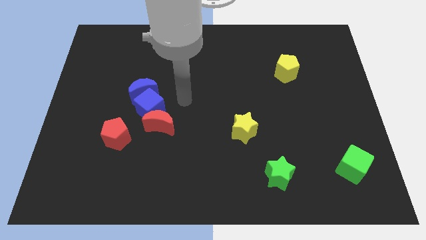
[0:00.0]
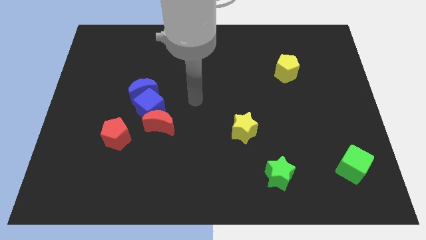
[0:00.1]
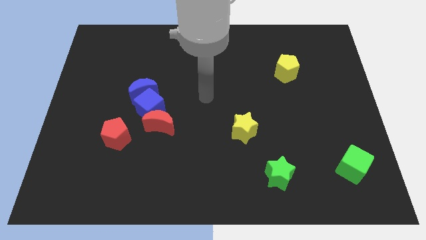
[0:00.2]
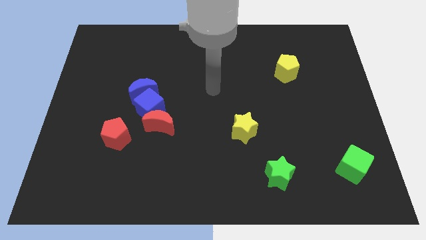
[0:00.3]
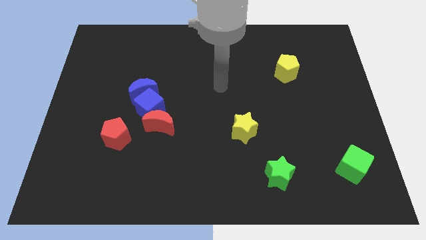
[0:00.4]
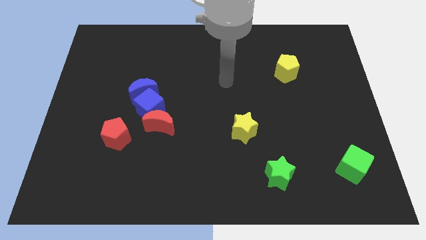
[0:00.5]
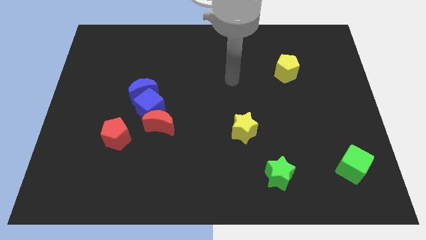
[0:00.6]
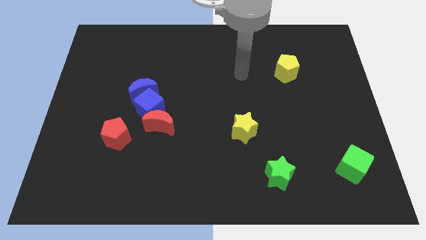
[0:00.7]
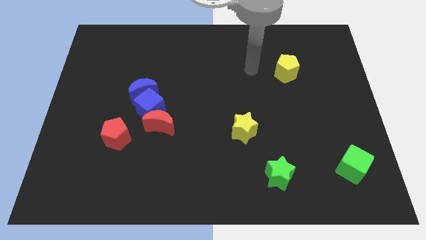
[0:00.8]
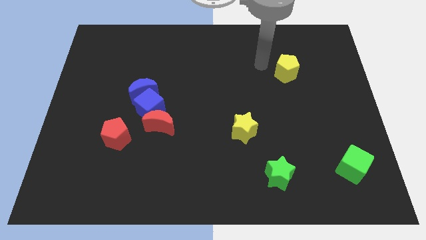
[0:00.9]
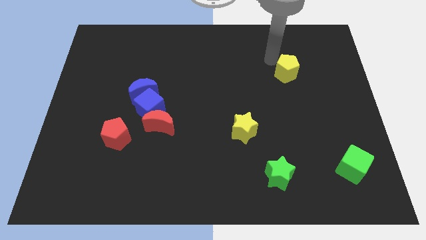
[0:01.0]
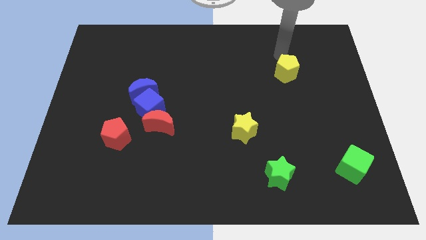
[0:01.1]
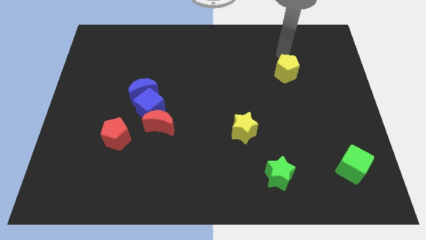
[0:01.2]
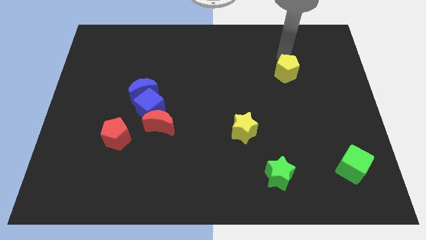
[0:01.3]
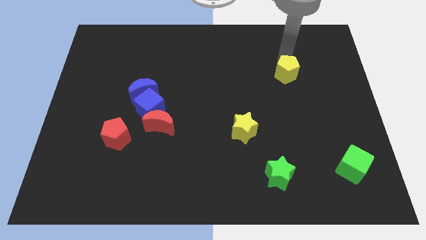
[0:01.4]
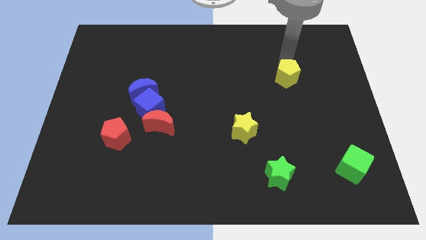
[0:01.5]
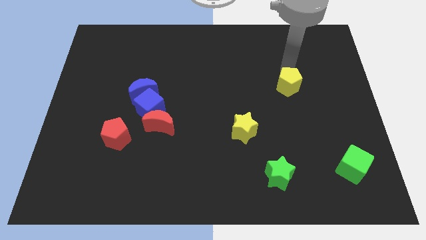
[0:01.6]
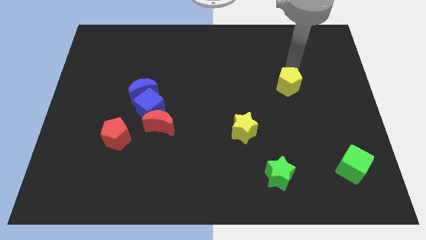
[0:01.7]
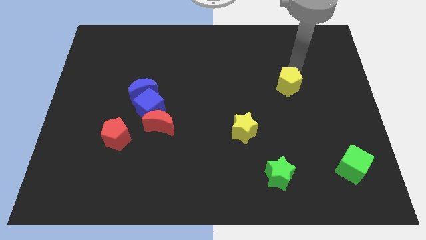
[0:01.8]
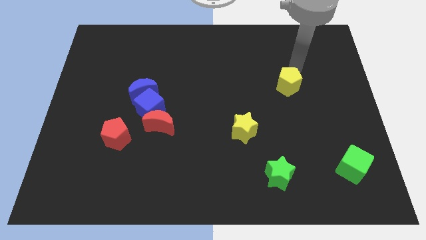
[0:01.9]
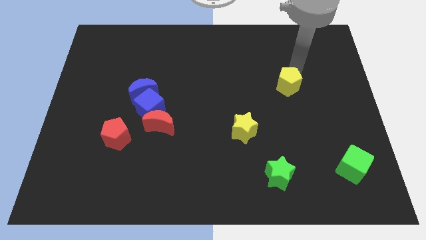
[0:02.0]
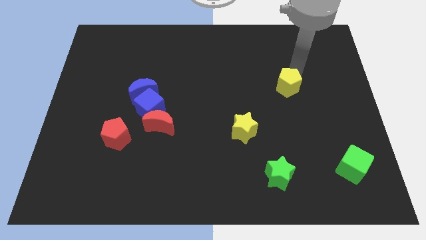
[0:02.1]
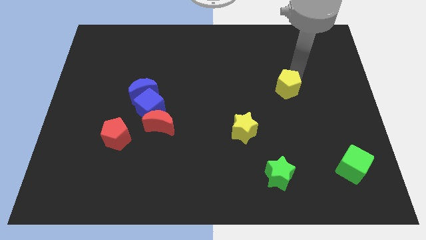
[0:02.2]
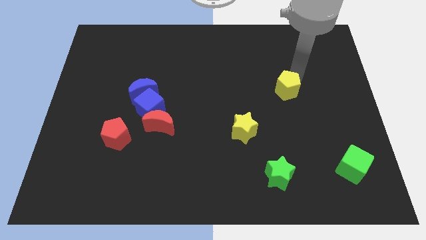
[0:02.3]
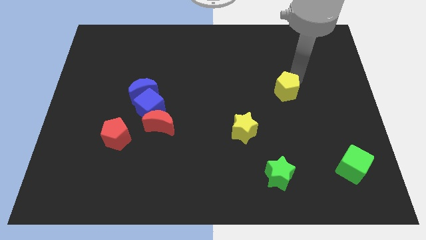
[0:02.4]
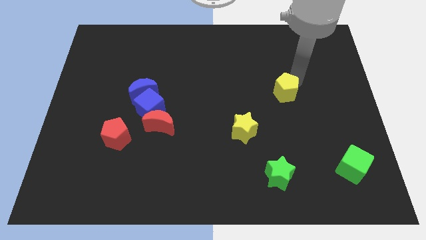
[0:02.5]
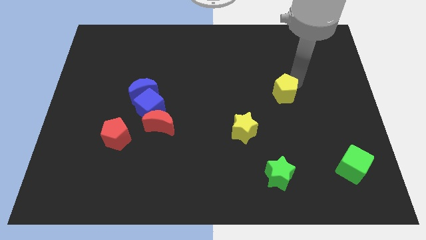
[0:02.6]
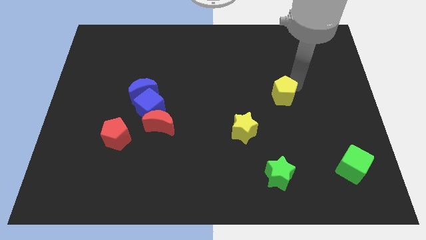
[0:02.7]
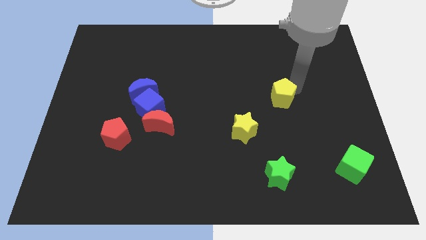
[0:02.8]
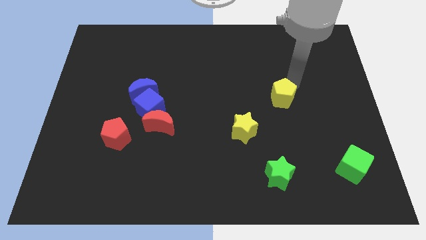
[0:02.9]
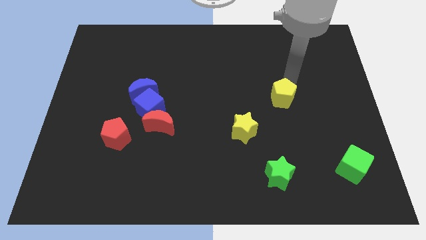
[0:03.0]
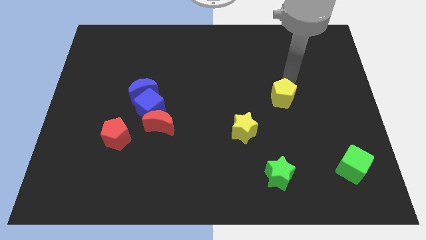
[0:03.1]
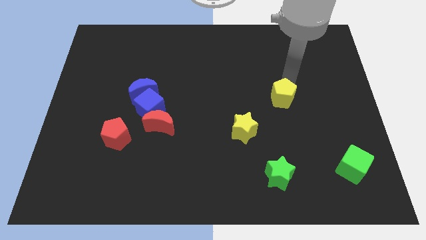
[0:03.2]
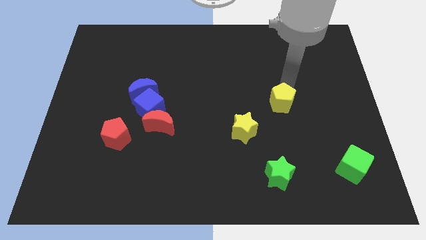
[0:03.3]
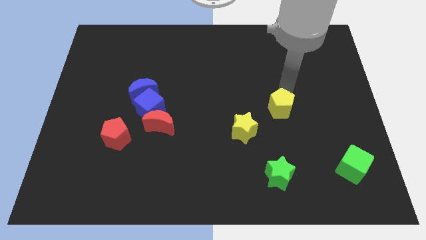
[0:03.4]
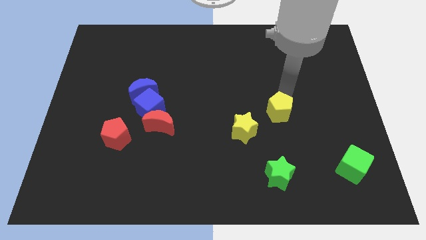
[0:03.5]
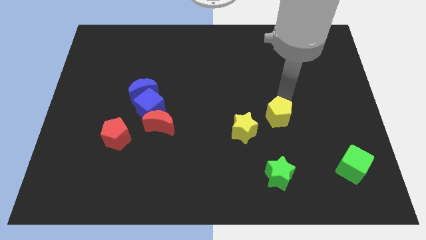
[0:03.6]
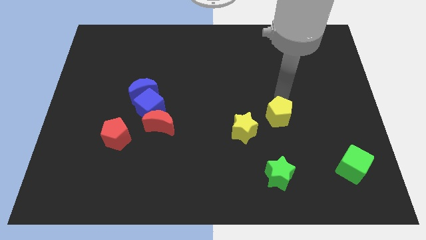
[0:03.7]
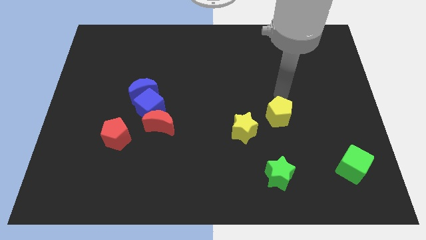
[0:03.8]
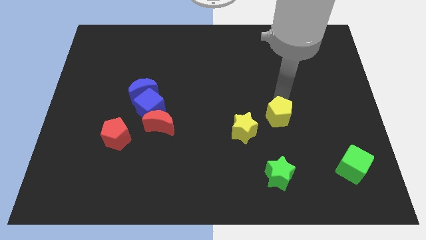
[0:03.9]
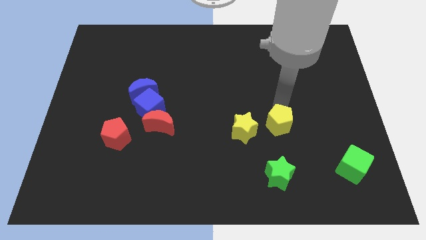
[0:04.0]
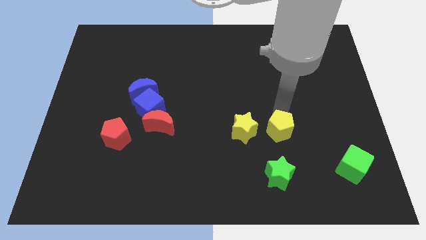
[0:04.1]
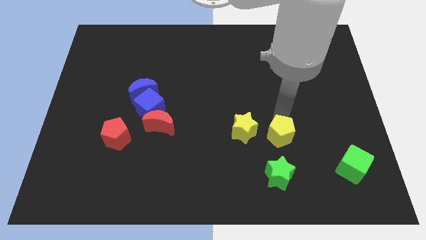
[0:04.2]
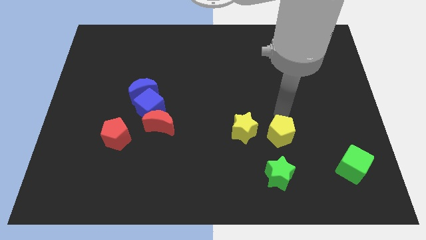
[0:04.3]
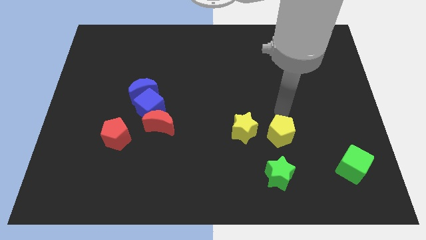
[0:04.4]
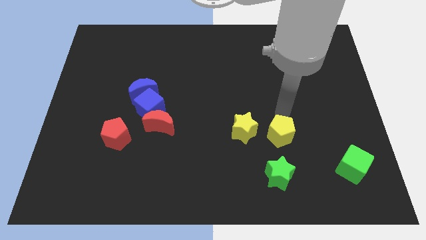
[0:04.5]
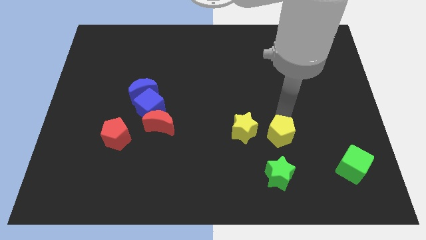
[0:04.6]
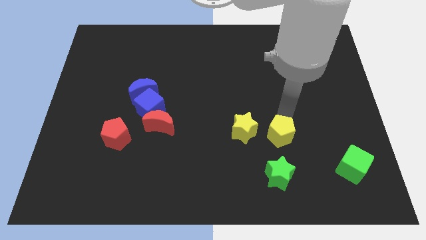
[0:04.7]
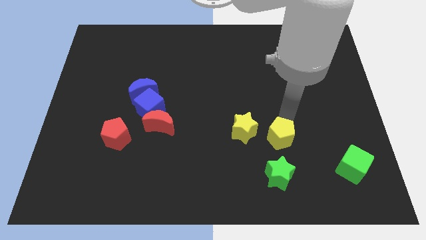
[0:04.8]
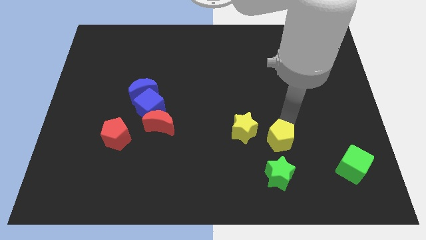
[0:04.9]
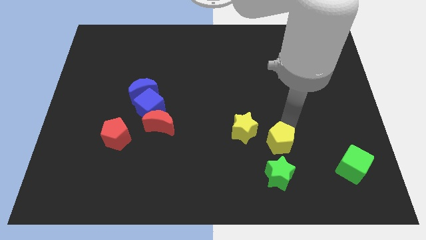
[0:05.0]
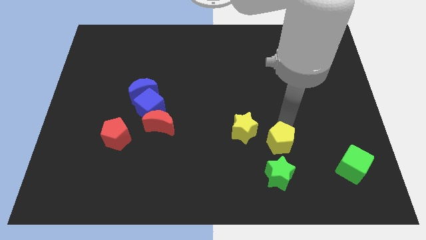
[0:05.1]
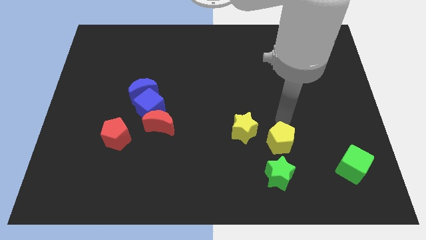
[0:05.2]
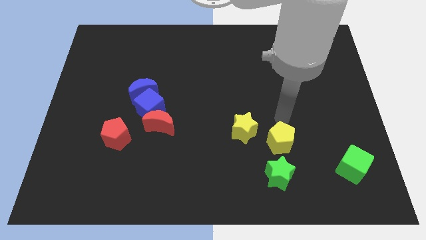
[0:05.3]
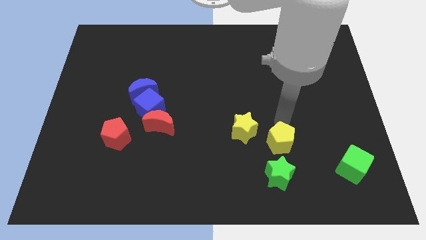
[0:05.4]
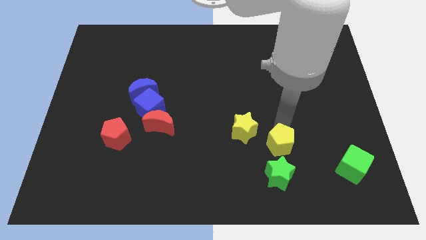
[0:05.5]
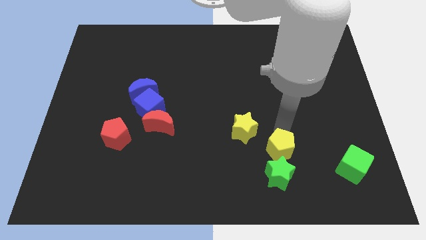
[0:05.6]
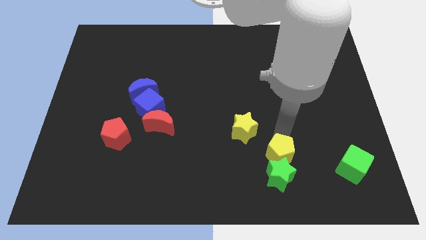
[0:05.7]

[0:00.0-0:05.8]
slide the yellow pentagon towards the green star

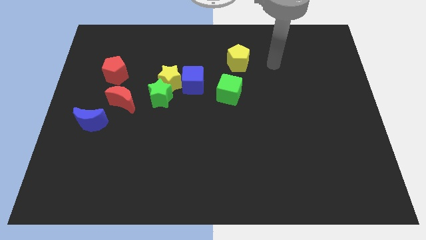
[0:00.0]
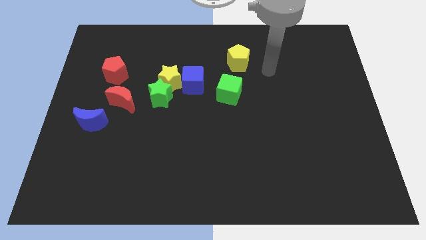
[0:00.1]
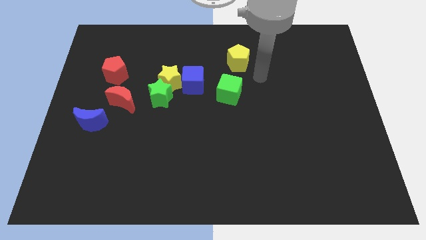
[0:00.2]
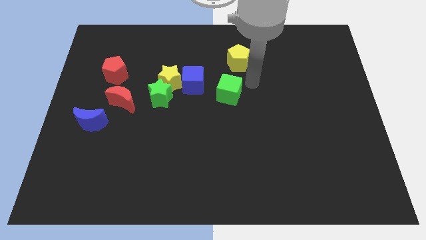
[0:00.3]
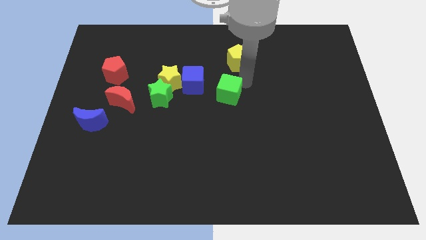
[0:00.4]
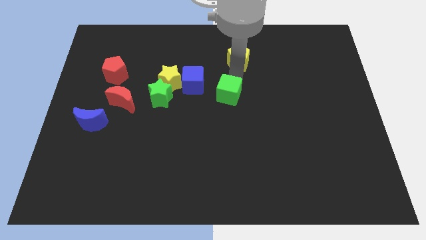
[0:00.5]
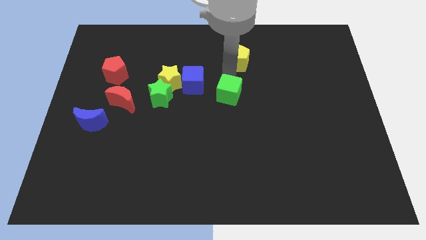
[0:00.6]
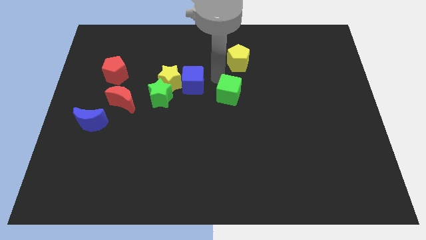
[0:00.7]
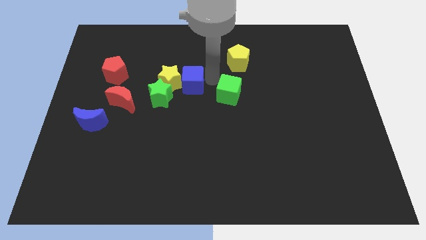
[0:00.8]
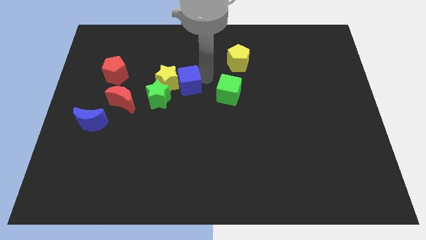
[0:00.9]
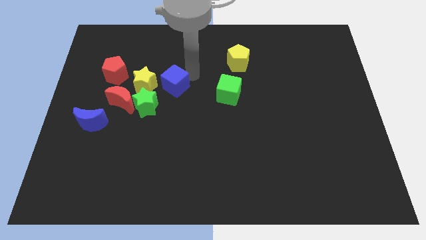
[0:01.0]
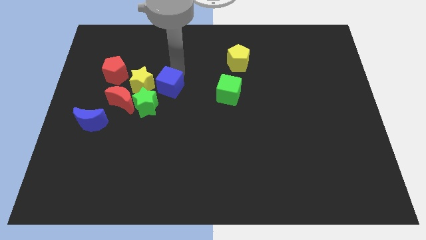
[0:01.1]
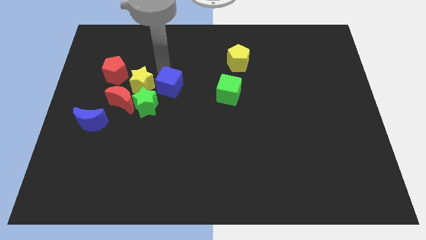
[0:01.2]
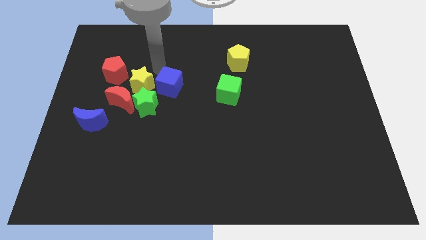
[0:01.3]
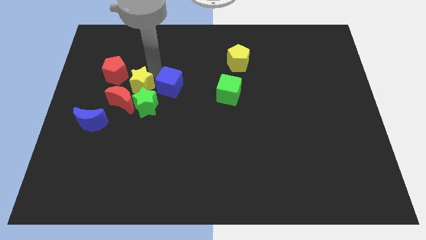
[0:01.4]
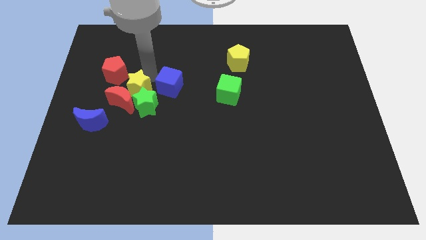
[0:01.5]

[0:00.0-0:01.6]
put the yellow star to the red moon

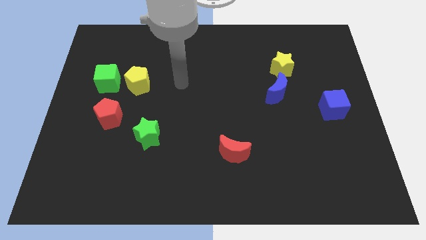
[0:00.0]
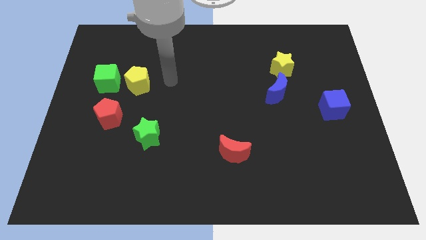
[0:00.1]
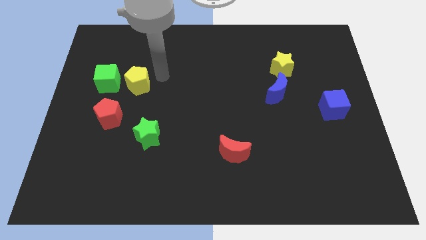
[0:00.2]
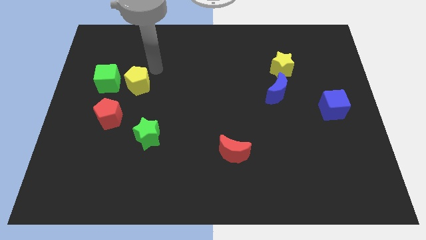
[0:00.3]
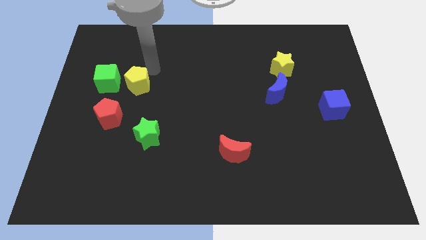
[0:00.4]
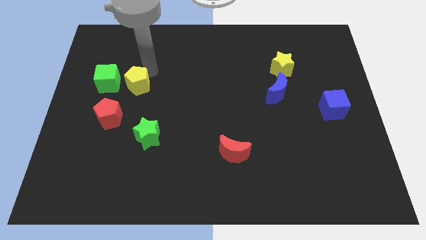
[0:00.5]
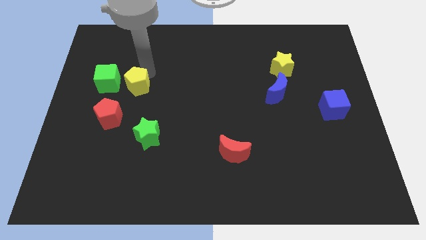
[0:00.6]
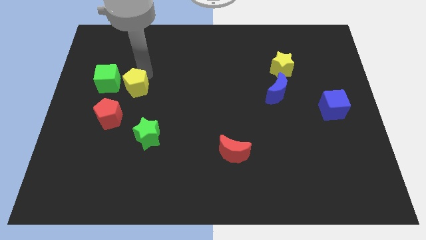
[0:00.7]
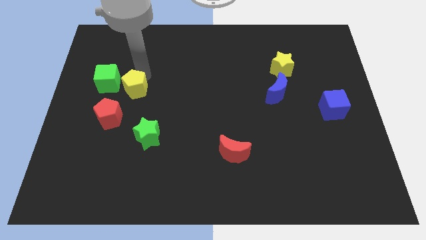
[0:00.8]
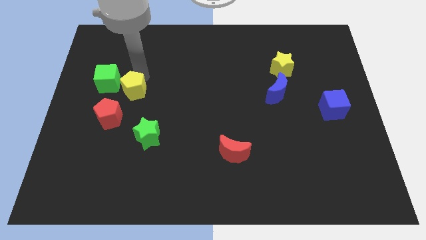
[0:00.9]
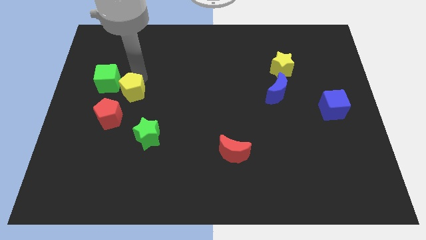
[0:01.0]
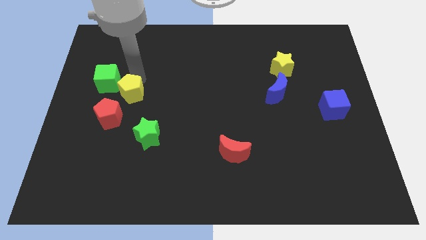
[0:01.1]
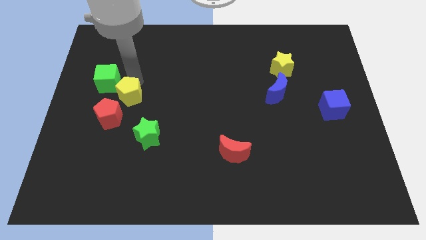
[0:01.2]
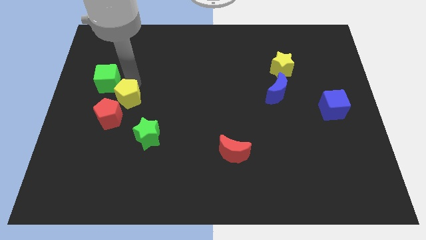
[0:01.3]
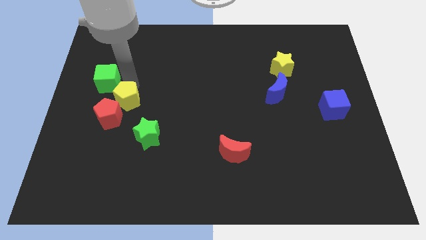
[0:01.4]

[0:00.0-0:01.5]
push the yellow pentagon towards the red pentagon
